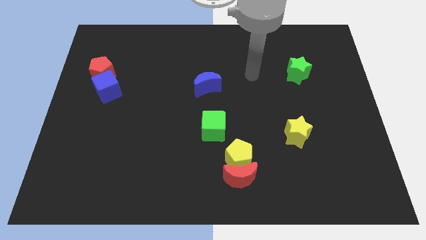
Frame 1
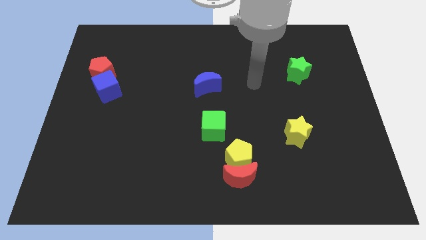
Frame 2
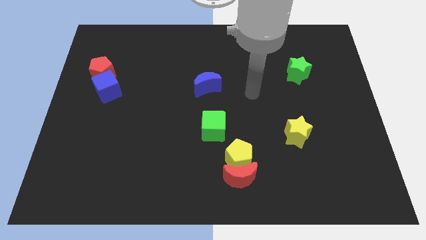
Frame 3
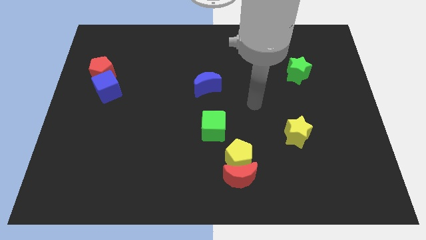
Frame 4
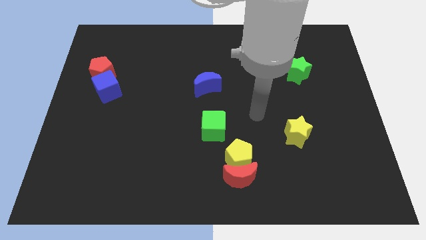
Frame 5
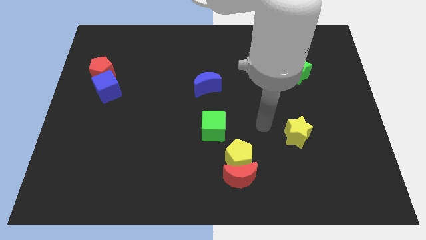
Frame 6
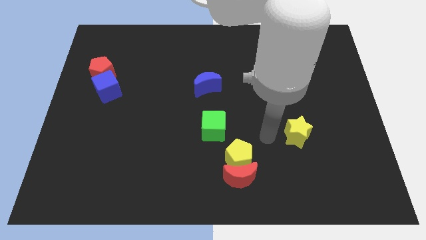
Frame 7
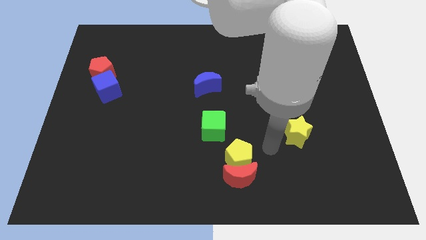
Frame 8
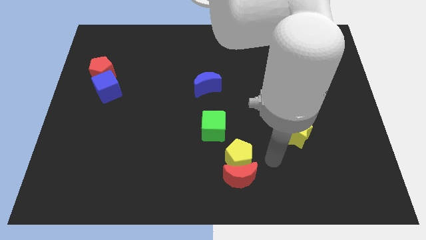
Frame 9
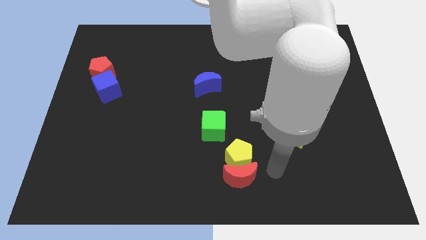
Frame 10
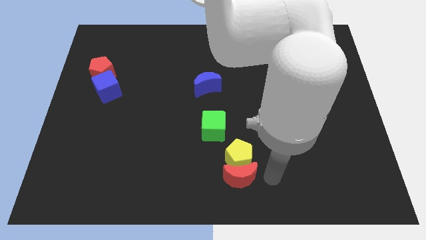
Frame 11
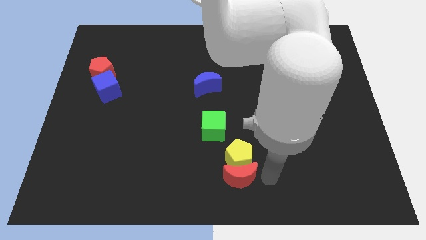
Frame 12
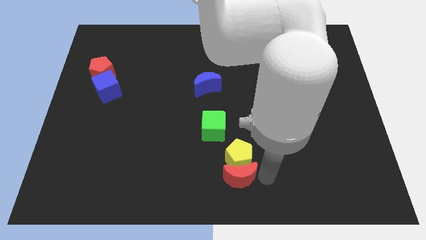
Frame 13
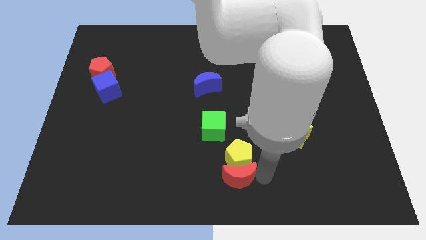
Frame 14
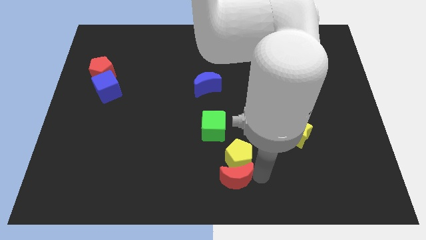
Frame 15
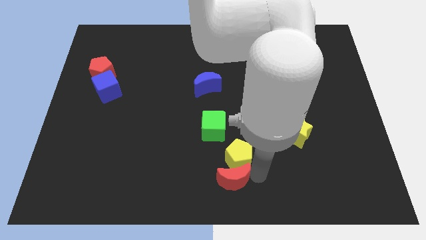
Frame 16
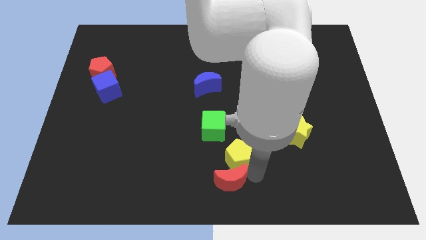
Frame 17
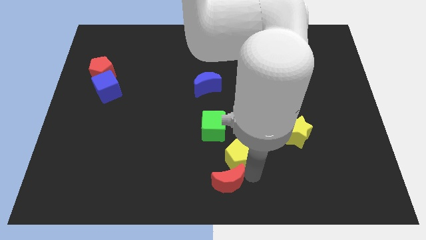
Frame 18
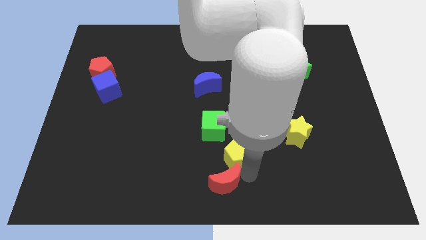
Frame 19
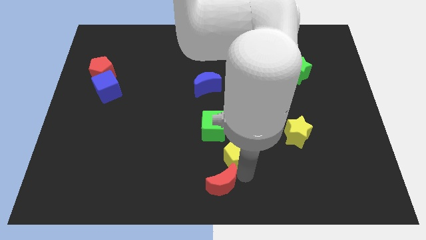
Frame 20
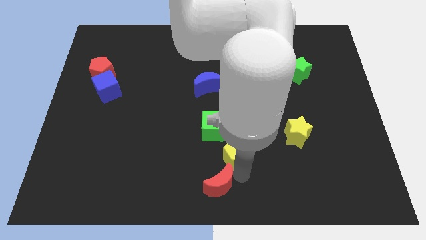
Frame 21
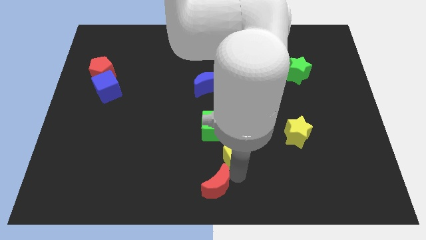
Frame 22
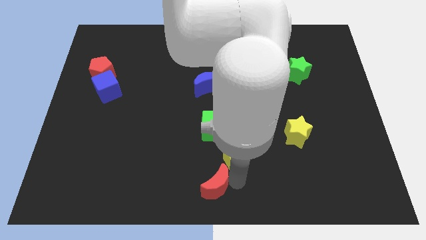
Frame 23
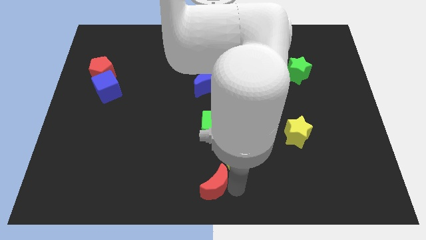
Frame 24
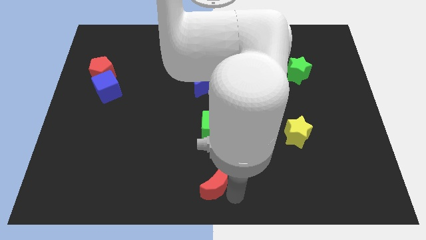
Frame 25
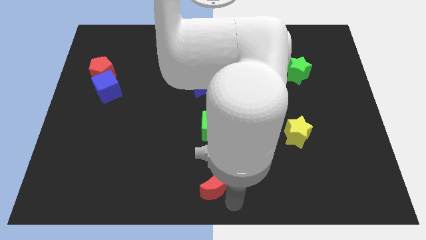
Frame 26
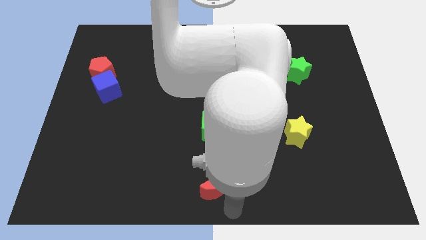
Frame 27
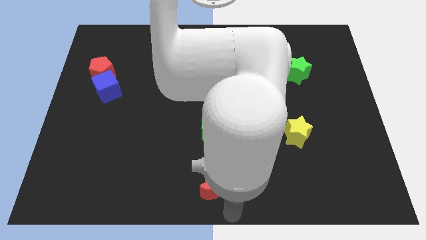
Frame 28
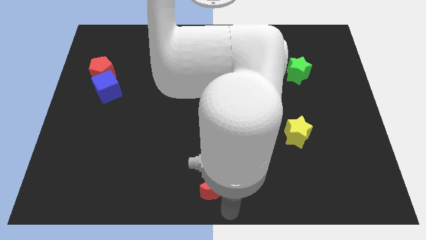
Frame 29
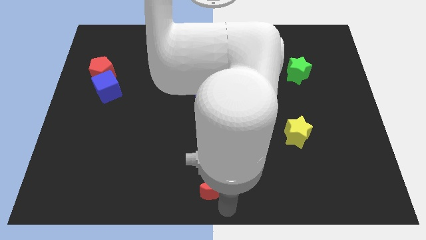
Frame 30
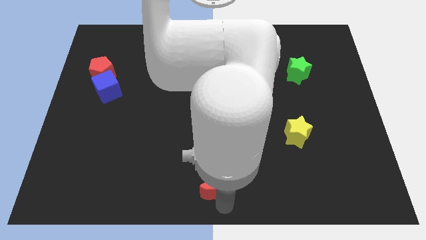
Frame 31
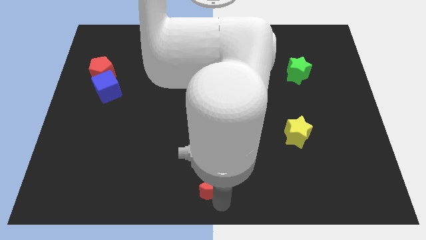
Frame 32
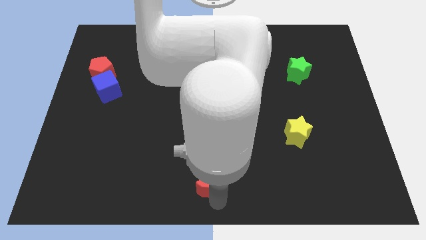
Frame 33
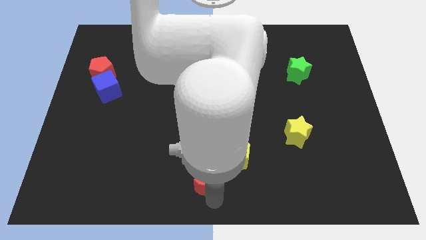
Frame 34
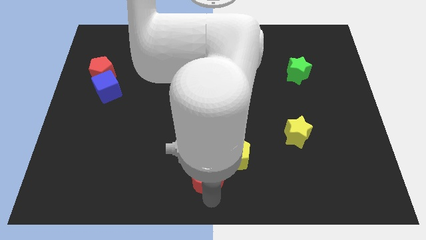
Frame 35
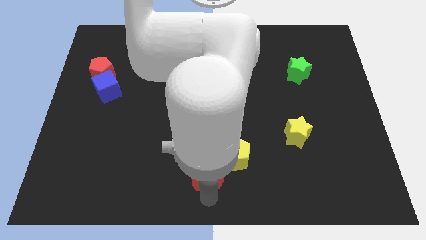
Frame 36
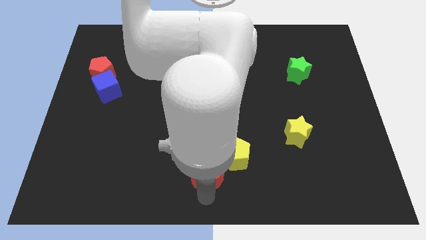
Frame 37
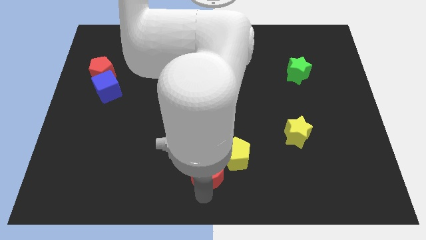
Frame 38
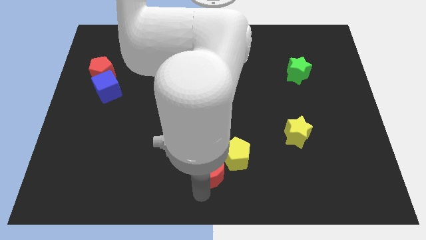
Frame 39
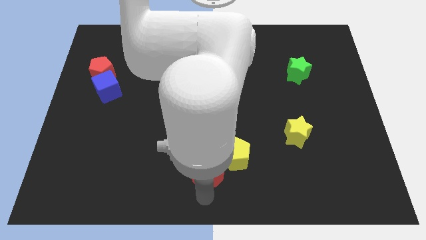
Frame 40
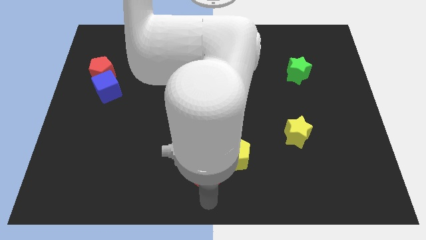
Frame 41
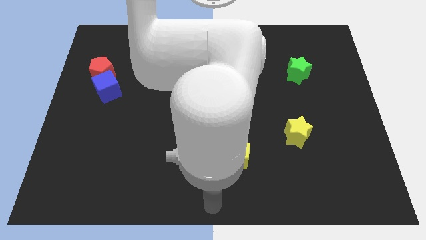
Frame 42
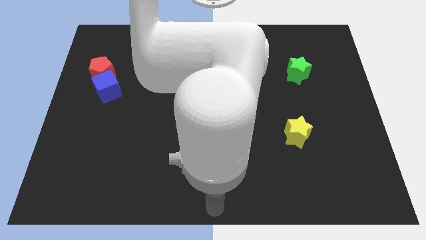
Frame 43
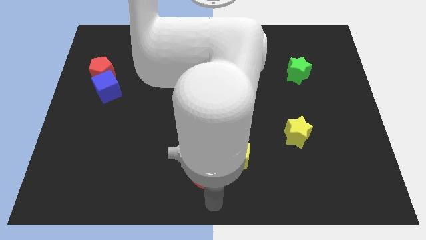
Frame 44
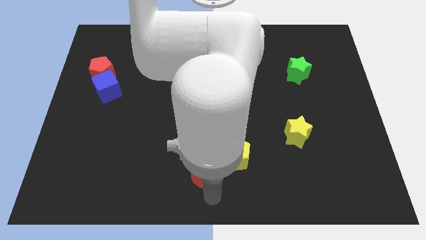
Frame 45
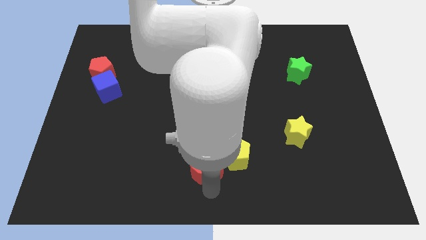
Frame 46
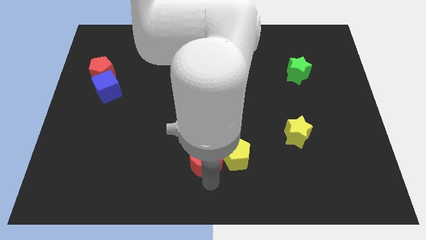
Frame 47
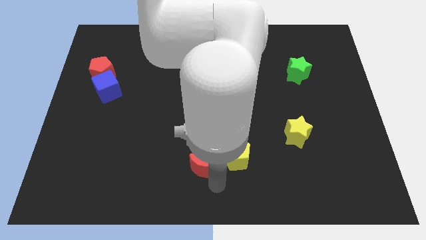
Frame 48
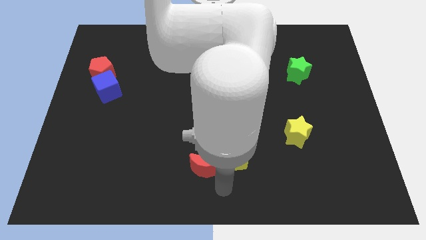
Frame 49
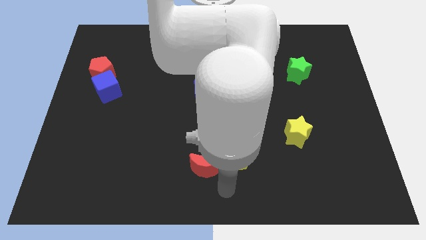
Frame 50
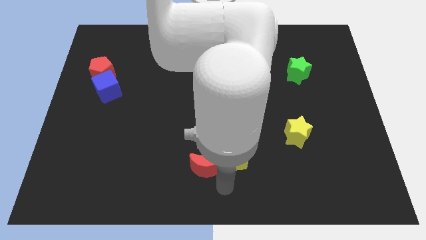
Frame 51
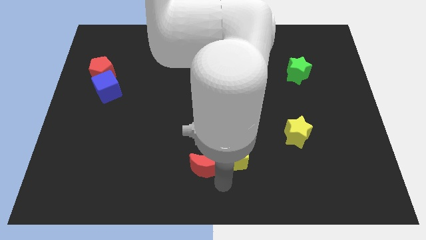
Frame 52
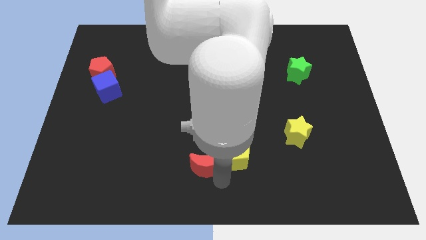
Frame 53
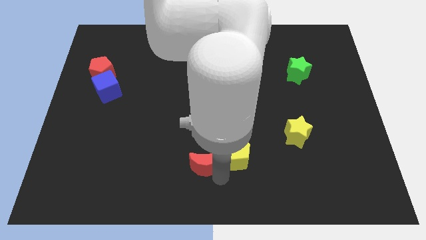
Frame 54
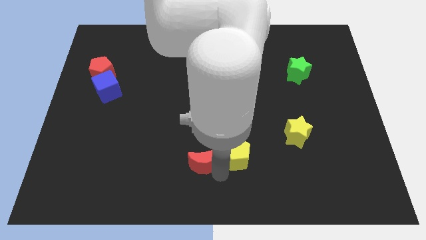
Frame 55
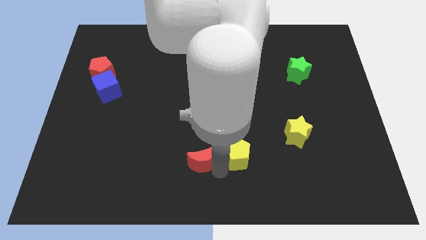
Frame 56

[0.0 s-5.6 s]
move the red moon diagonally down and to the left of the green cube
